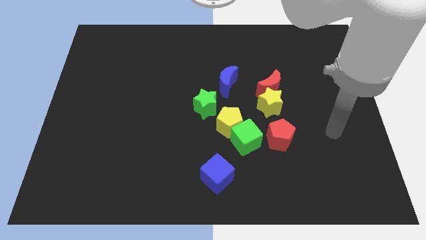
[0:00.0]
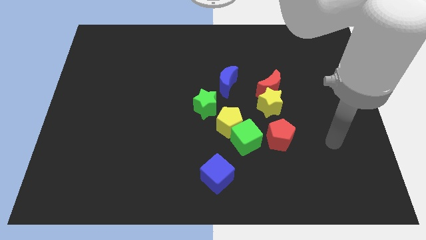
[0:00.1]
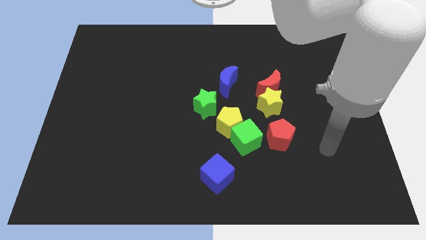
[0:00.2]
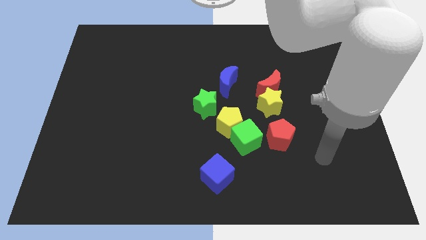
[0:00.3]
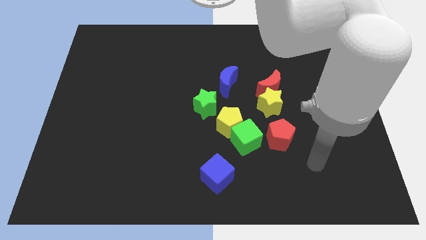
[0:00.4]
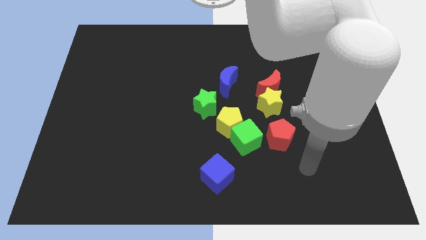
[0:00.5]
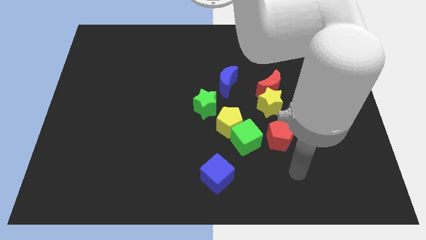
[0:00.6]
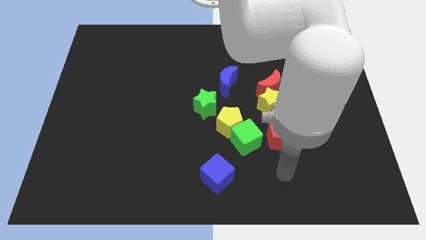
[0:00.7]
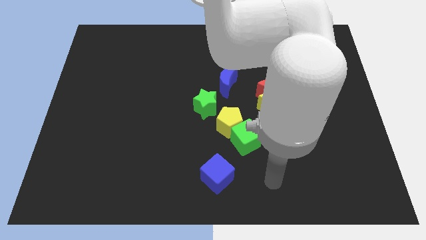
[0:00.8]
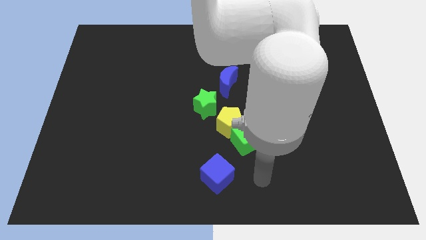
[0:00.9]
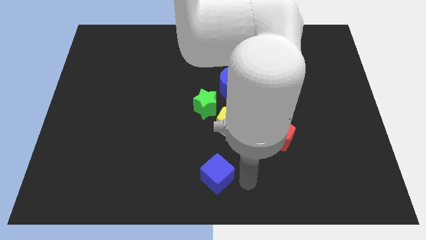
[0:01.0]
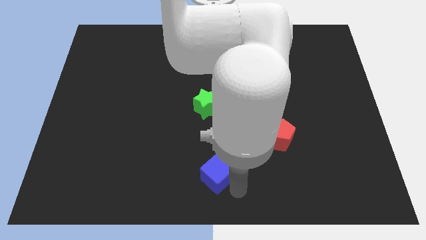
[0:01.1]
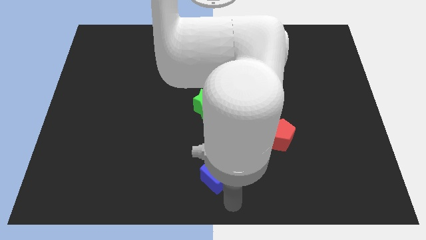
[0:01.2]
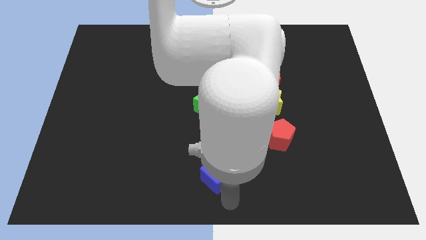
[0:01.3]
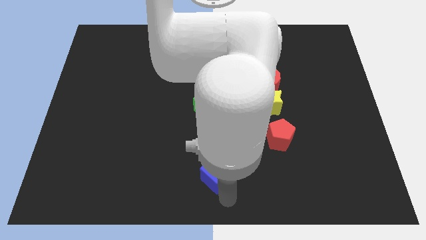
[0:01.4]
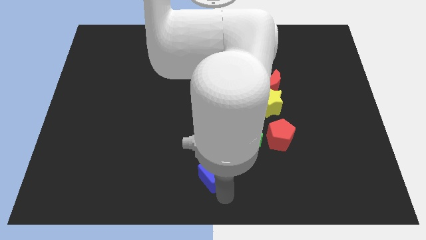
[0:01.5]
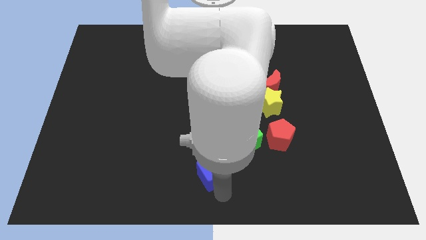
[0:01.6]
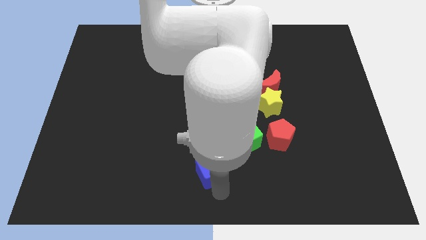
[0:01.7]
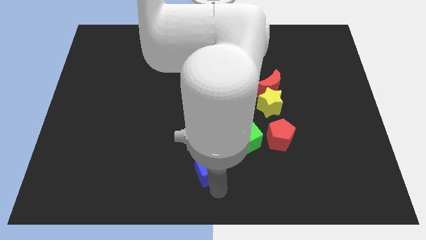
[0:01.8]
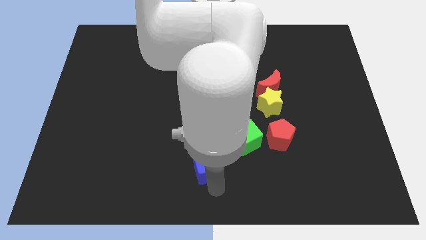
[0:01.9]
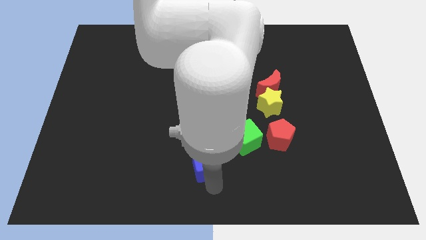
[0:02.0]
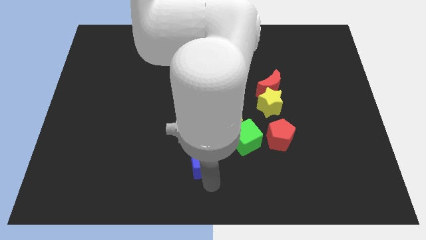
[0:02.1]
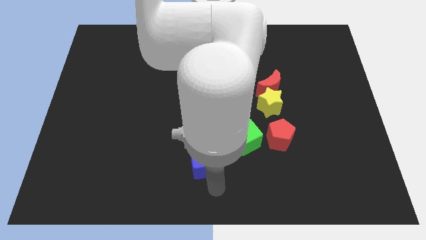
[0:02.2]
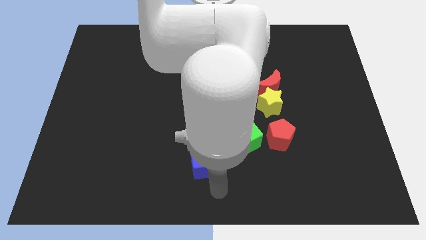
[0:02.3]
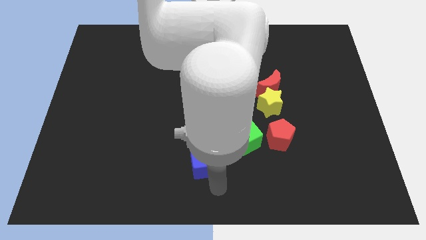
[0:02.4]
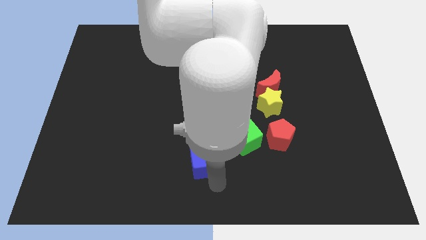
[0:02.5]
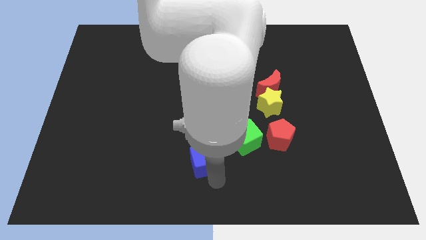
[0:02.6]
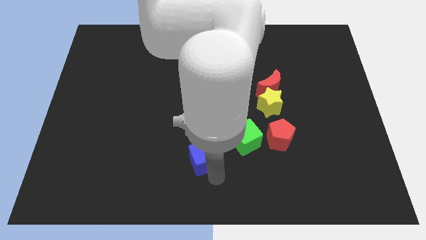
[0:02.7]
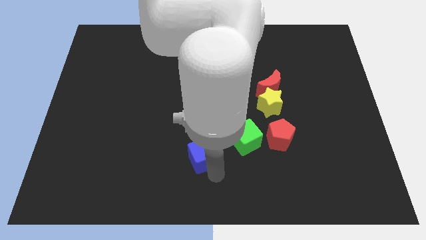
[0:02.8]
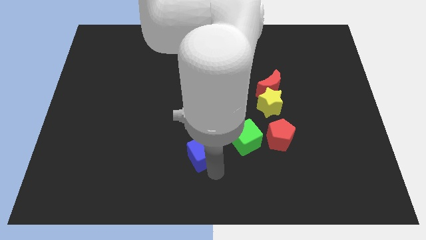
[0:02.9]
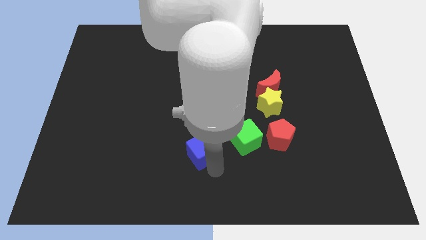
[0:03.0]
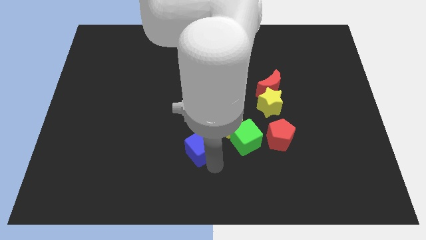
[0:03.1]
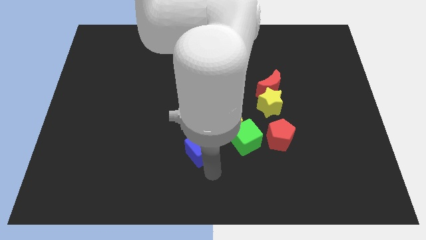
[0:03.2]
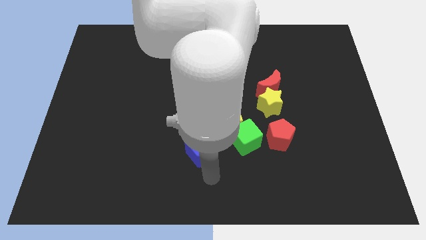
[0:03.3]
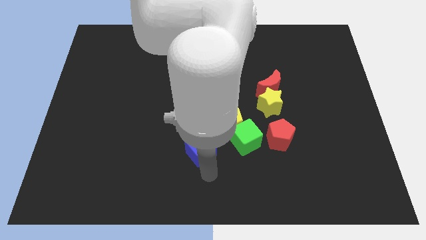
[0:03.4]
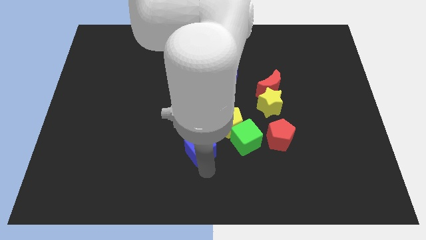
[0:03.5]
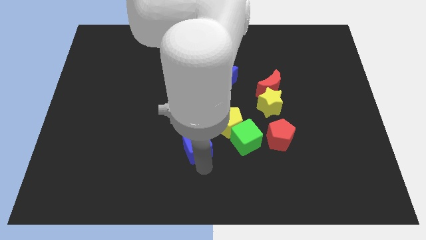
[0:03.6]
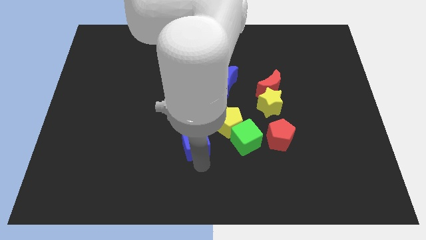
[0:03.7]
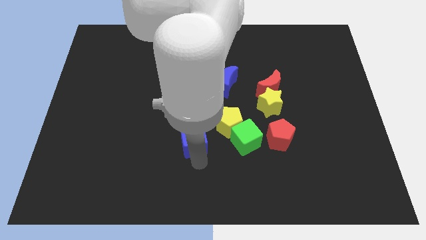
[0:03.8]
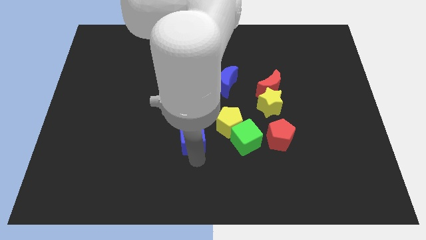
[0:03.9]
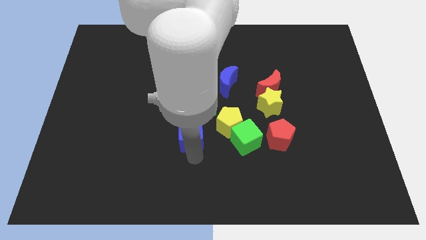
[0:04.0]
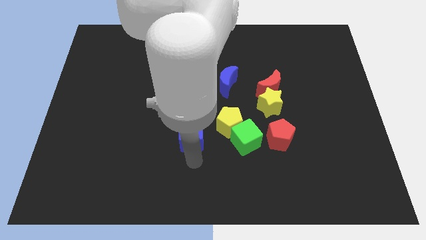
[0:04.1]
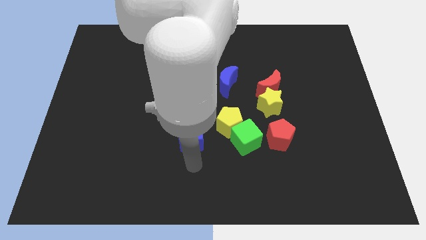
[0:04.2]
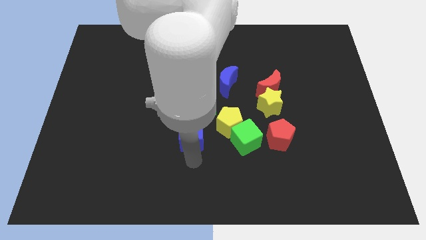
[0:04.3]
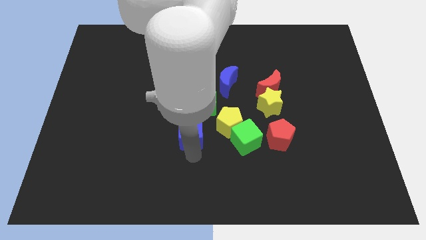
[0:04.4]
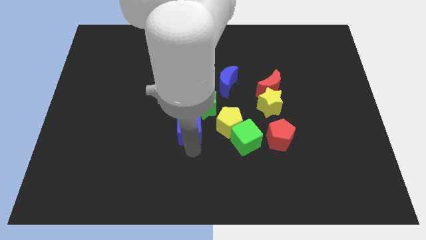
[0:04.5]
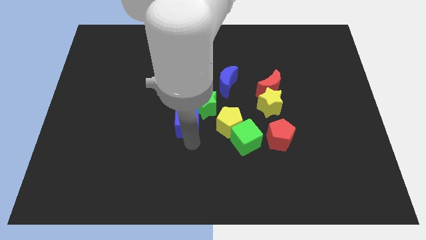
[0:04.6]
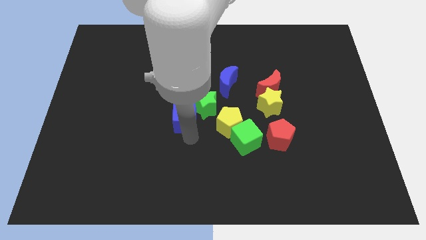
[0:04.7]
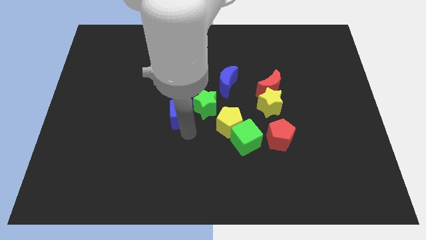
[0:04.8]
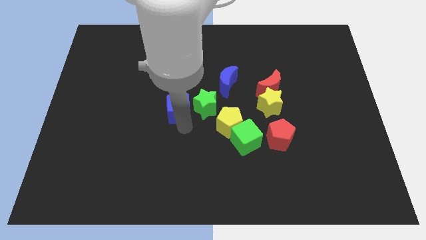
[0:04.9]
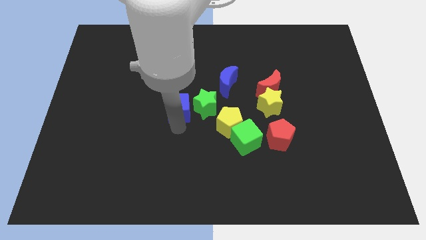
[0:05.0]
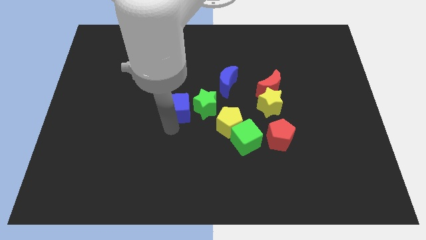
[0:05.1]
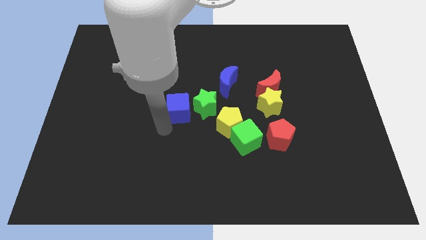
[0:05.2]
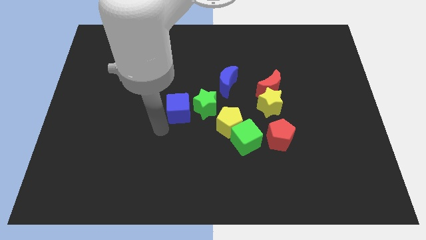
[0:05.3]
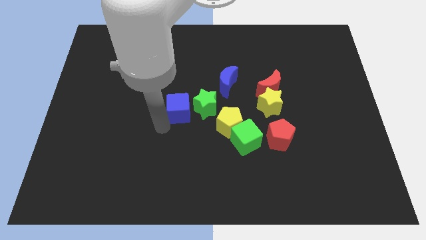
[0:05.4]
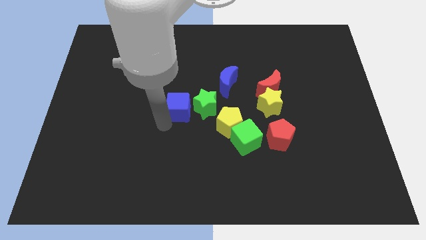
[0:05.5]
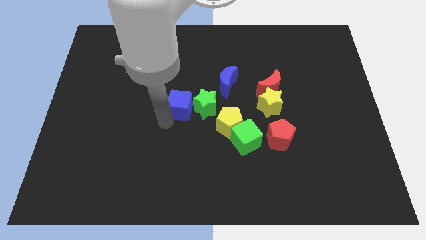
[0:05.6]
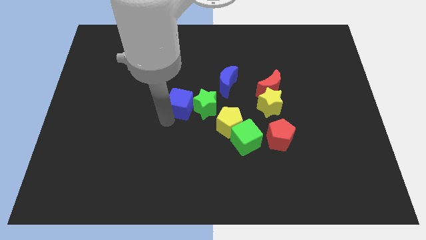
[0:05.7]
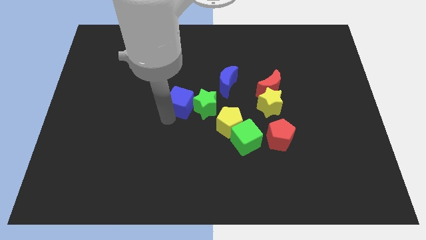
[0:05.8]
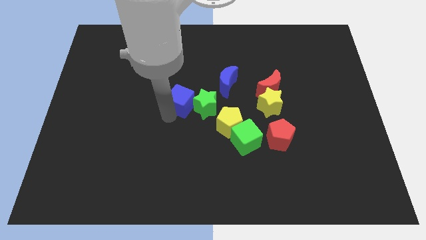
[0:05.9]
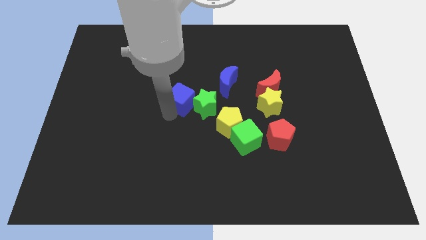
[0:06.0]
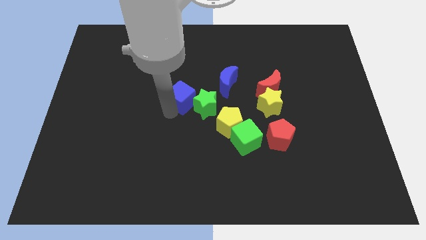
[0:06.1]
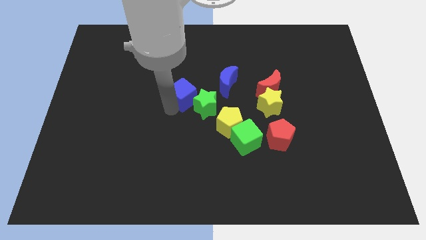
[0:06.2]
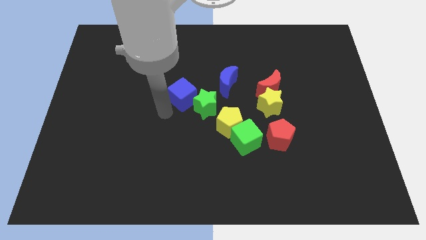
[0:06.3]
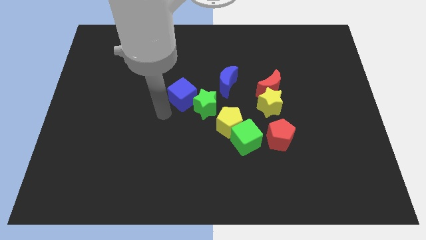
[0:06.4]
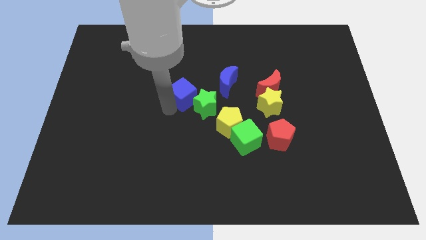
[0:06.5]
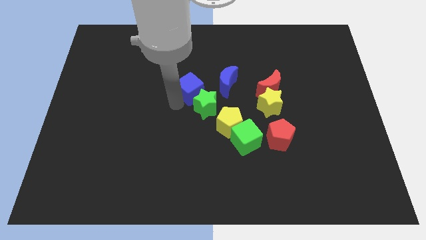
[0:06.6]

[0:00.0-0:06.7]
move the blue cube up

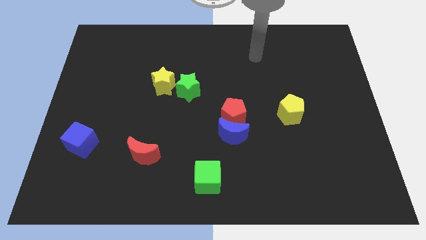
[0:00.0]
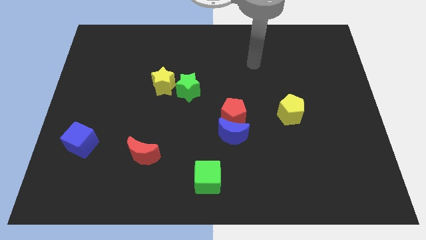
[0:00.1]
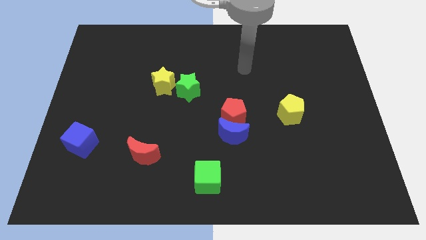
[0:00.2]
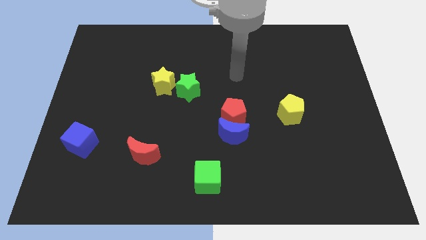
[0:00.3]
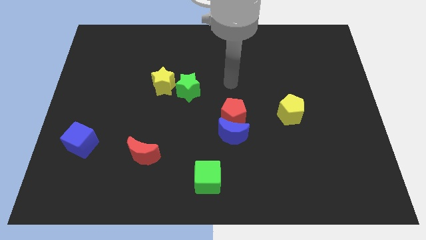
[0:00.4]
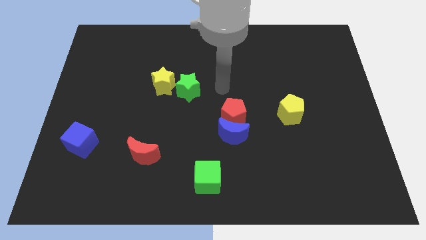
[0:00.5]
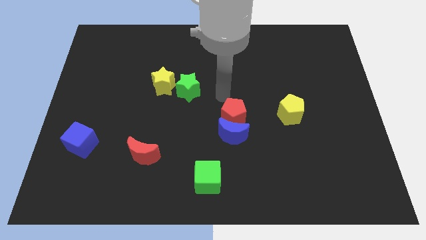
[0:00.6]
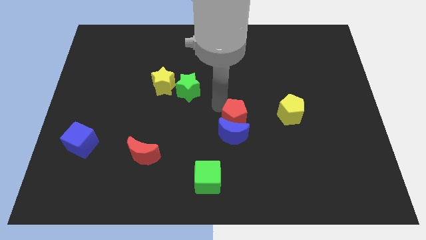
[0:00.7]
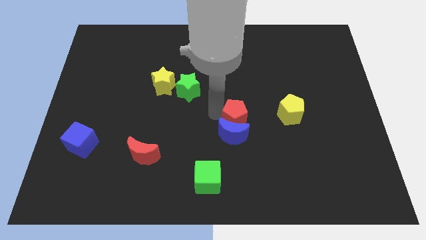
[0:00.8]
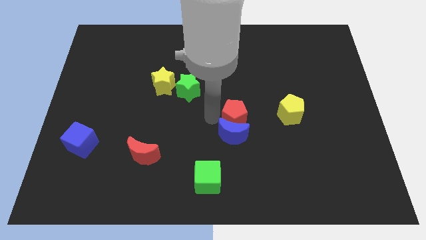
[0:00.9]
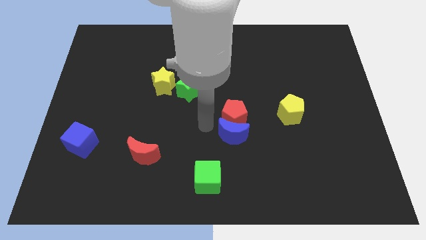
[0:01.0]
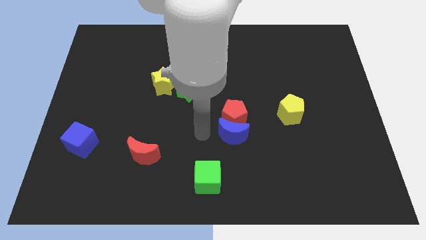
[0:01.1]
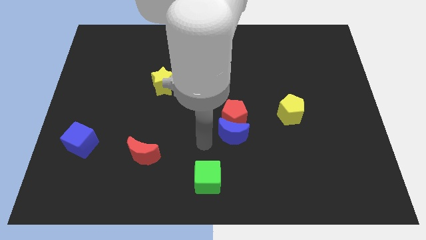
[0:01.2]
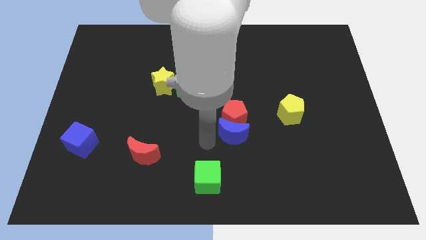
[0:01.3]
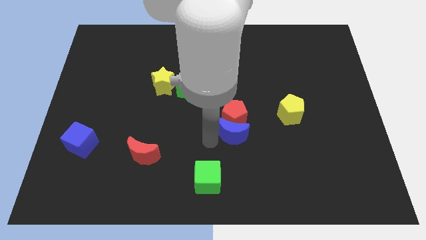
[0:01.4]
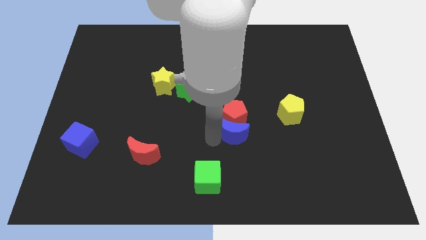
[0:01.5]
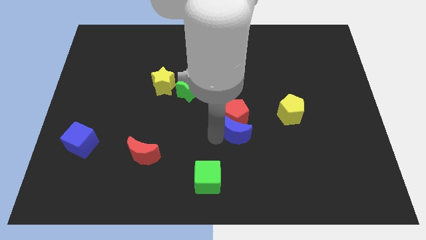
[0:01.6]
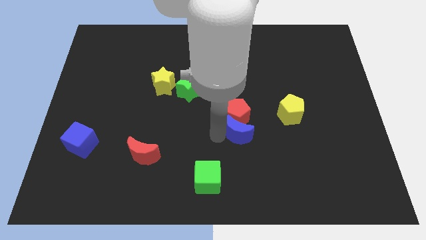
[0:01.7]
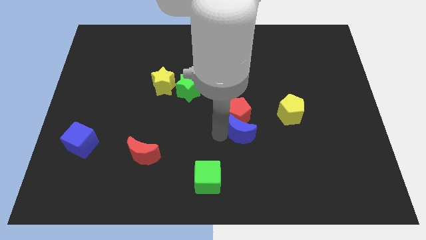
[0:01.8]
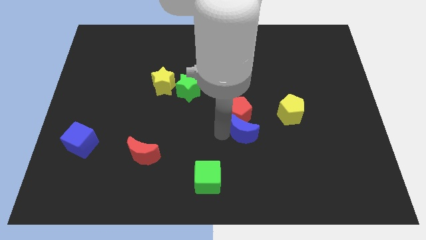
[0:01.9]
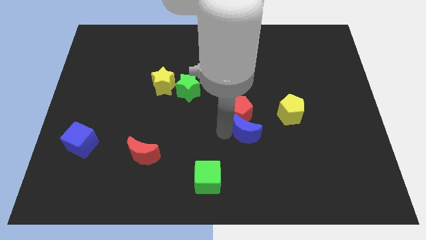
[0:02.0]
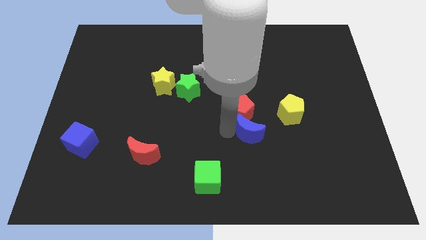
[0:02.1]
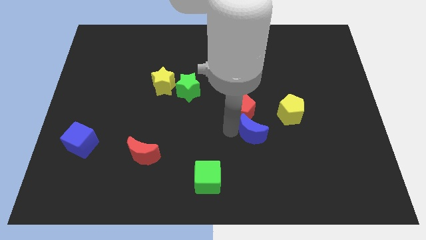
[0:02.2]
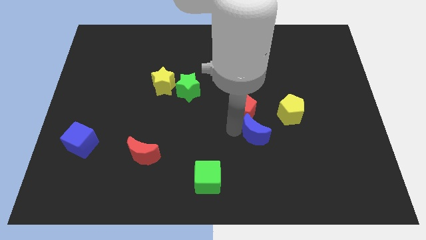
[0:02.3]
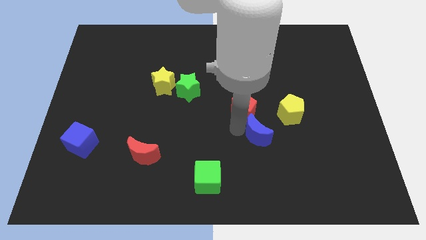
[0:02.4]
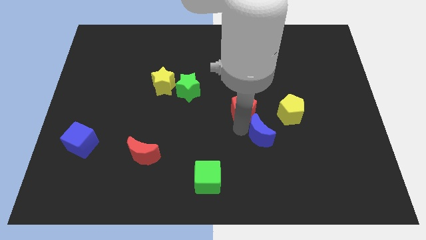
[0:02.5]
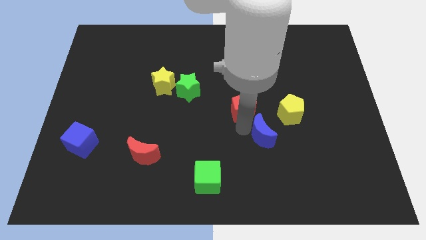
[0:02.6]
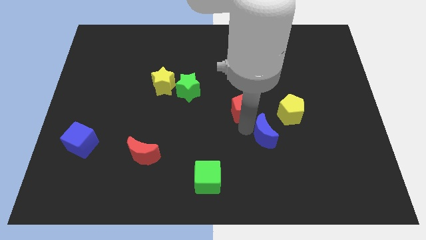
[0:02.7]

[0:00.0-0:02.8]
slightly slide the blue moon to the right
